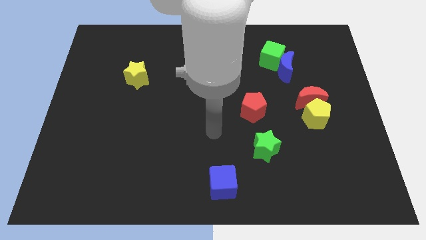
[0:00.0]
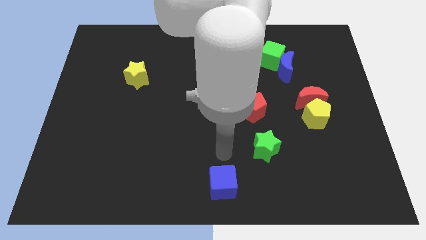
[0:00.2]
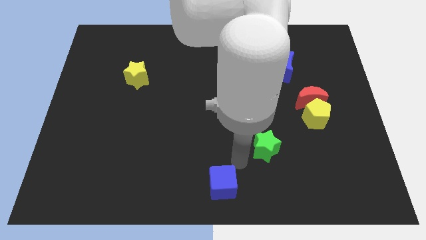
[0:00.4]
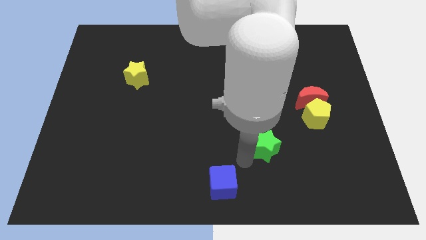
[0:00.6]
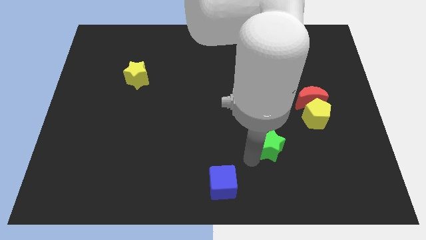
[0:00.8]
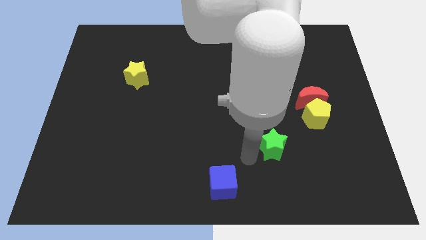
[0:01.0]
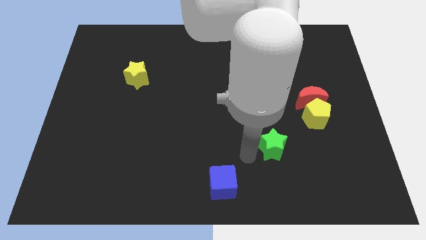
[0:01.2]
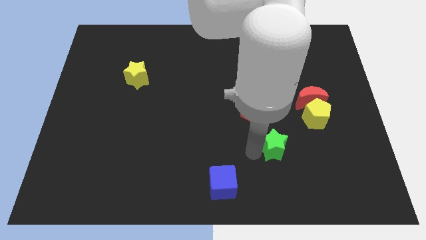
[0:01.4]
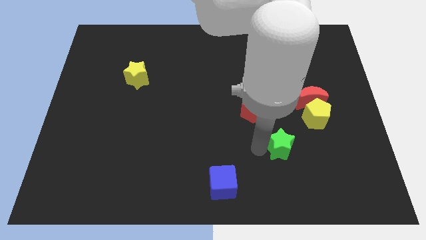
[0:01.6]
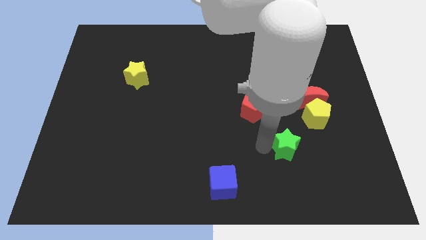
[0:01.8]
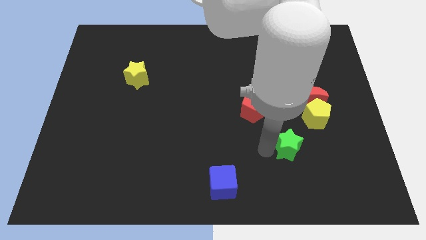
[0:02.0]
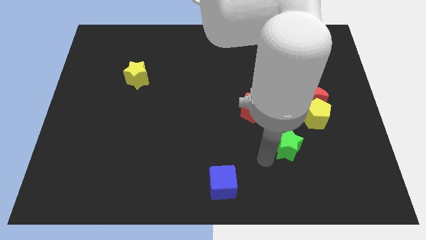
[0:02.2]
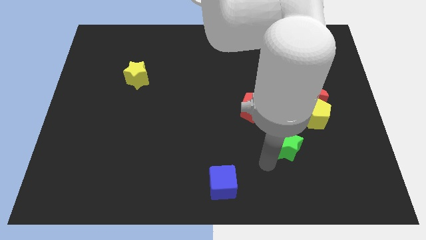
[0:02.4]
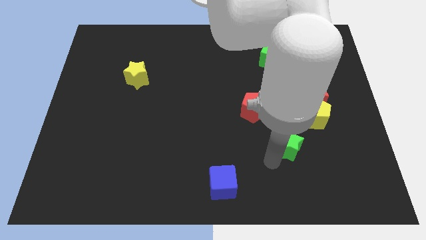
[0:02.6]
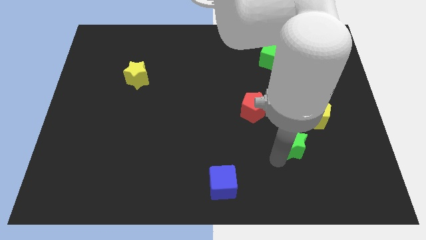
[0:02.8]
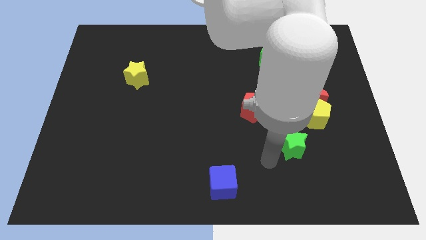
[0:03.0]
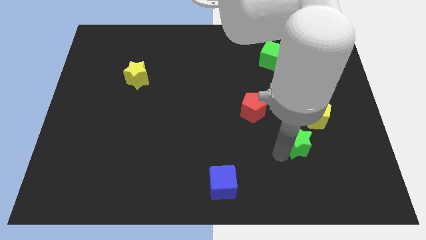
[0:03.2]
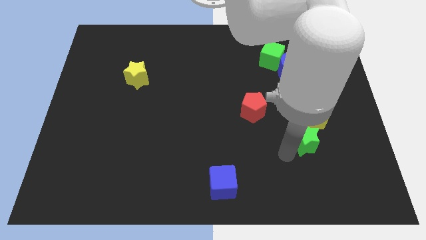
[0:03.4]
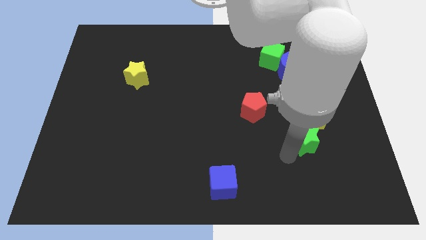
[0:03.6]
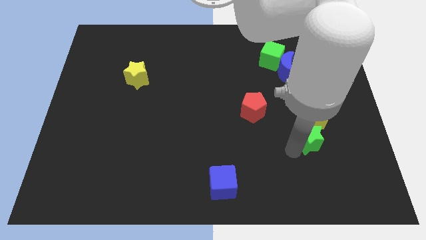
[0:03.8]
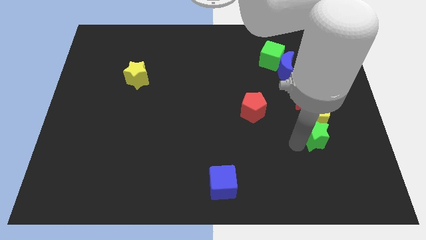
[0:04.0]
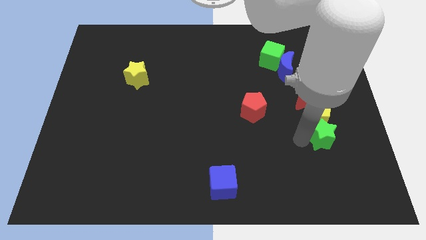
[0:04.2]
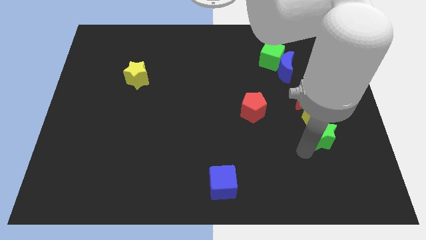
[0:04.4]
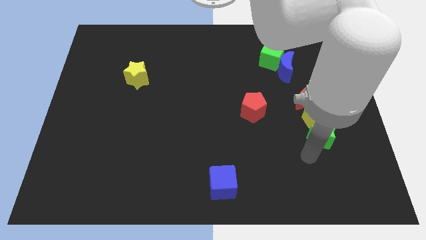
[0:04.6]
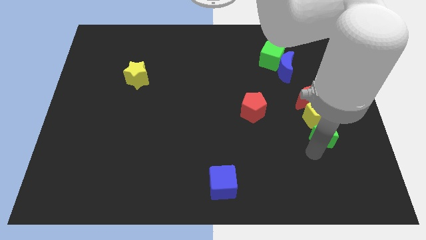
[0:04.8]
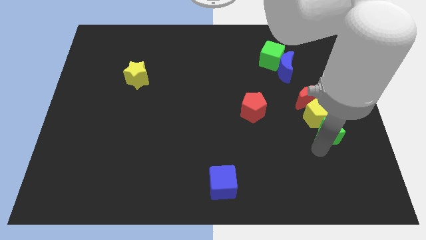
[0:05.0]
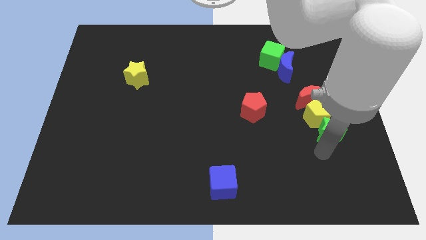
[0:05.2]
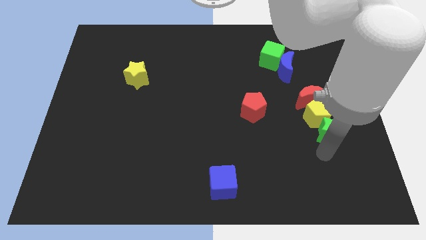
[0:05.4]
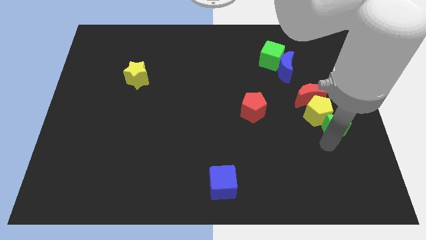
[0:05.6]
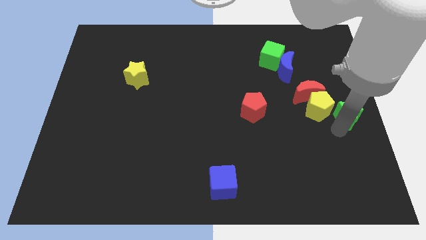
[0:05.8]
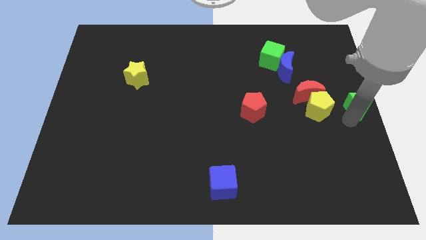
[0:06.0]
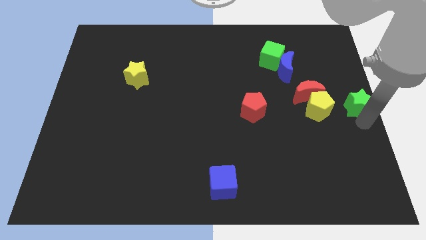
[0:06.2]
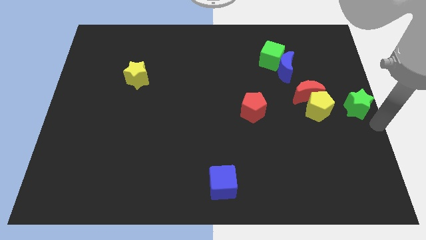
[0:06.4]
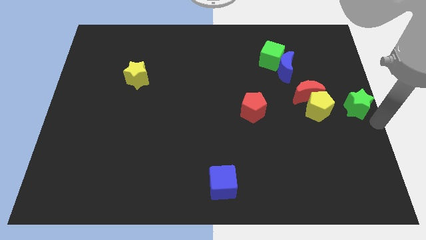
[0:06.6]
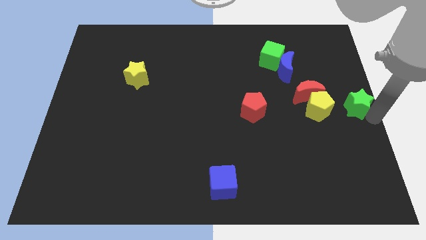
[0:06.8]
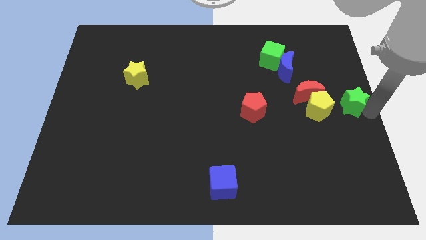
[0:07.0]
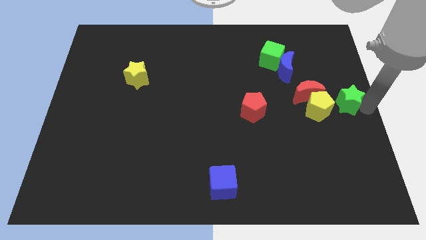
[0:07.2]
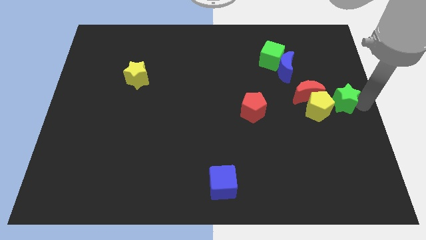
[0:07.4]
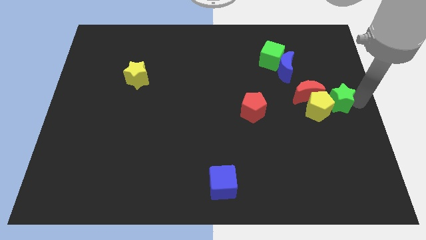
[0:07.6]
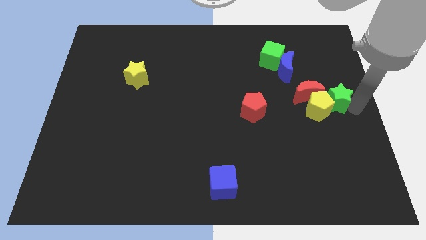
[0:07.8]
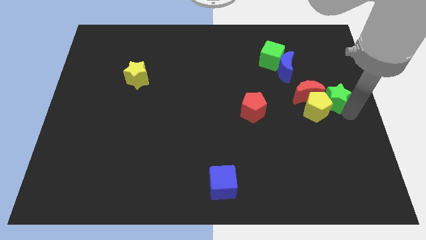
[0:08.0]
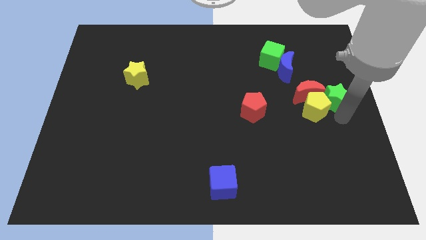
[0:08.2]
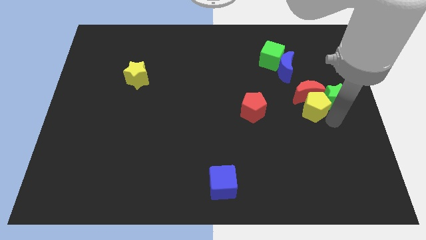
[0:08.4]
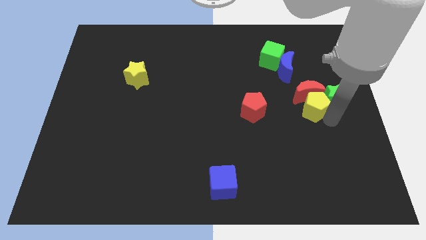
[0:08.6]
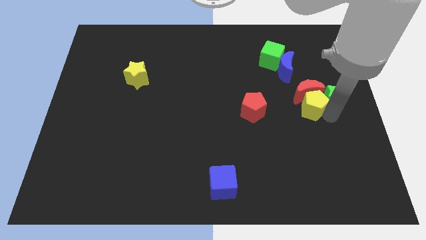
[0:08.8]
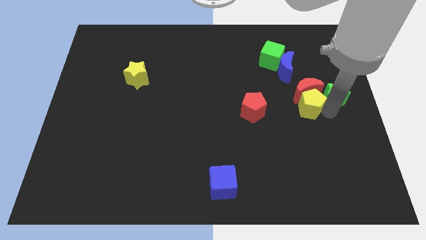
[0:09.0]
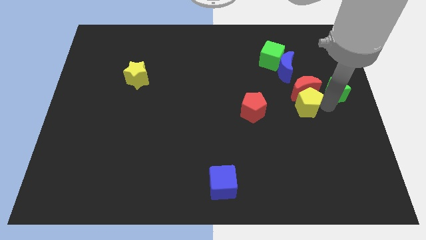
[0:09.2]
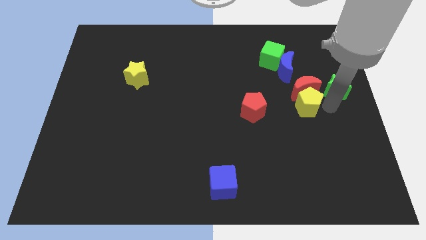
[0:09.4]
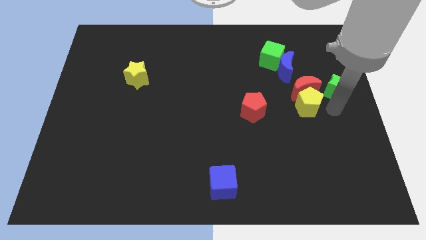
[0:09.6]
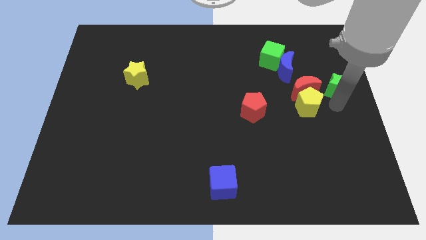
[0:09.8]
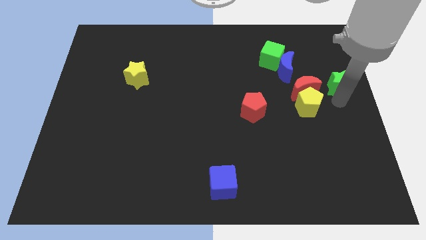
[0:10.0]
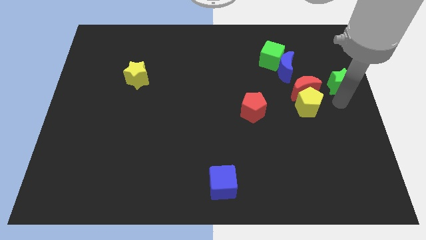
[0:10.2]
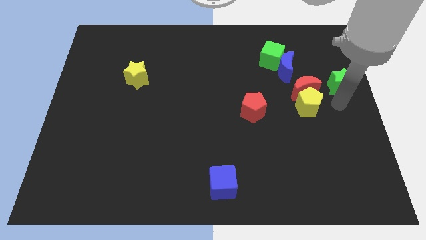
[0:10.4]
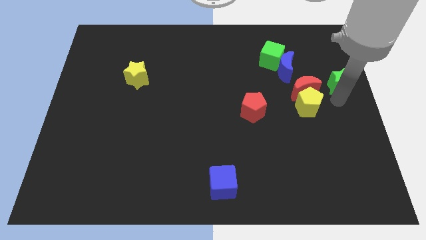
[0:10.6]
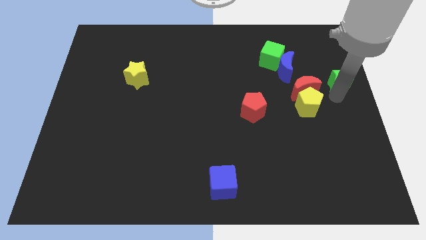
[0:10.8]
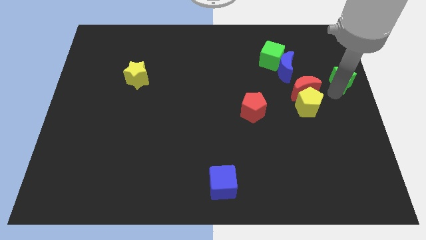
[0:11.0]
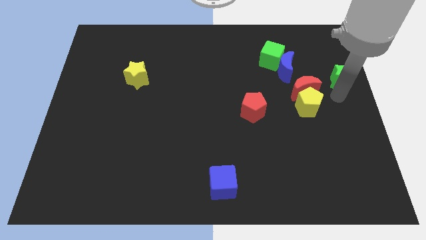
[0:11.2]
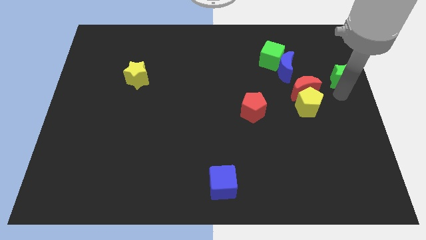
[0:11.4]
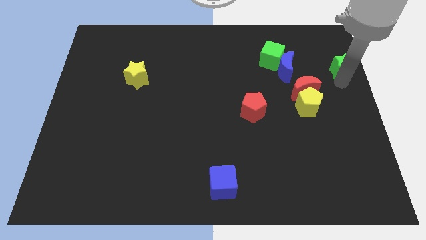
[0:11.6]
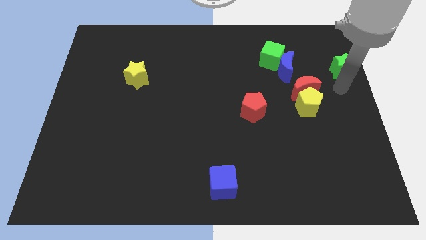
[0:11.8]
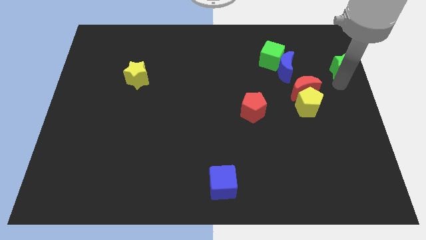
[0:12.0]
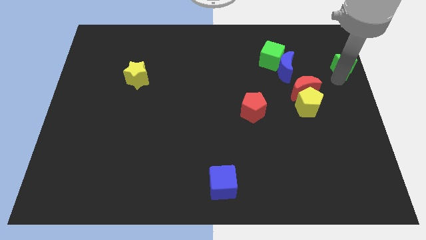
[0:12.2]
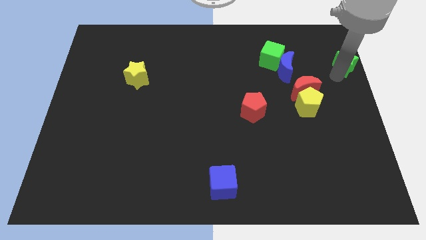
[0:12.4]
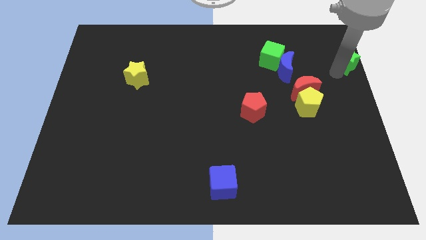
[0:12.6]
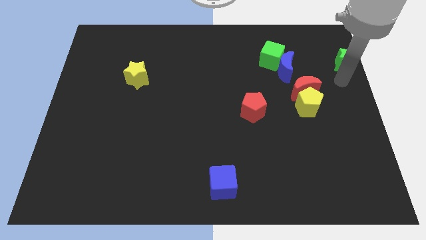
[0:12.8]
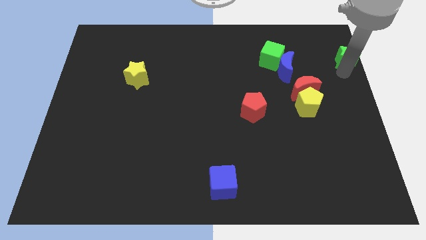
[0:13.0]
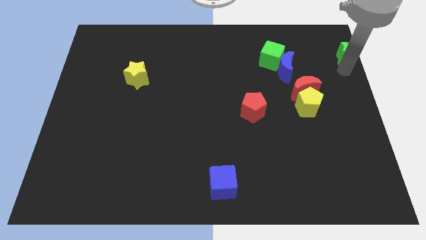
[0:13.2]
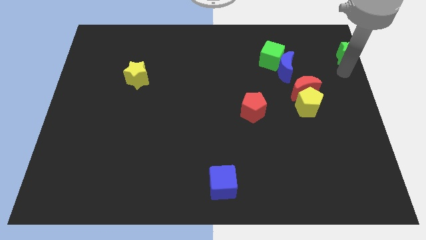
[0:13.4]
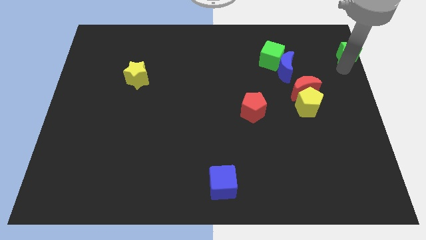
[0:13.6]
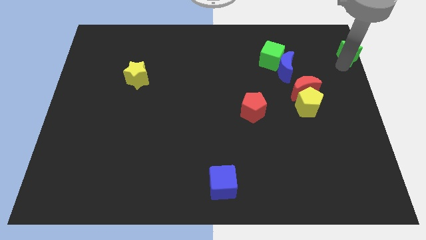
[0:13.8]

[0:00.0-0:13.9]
slide the green star to the upper right corner
